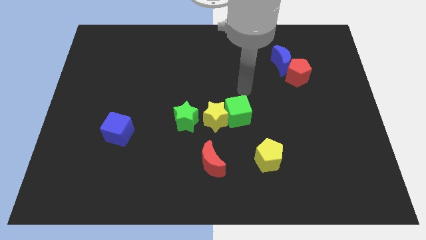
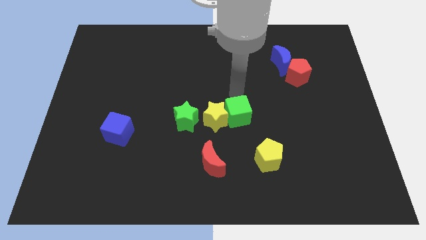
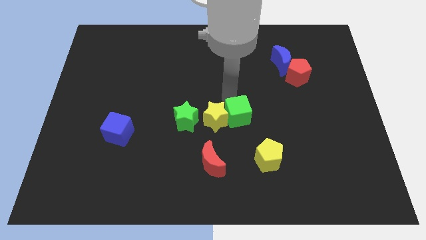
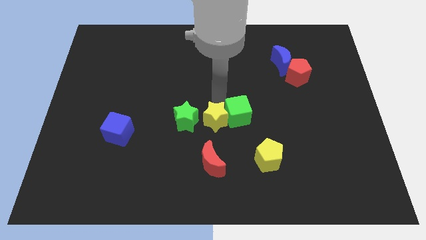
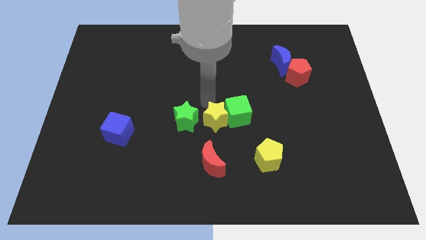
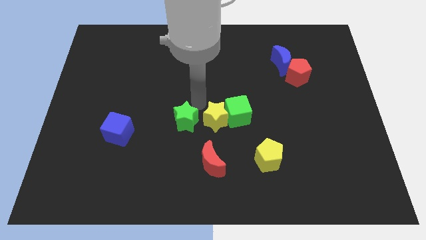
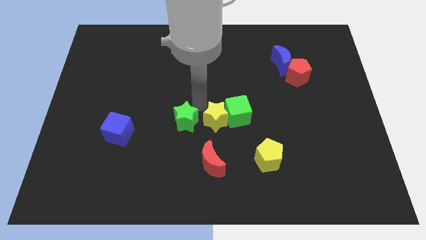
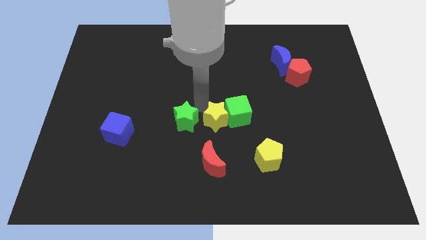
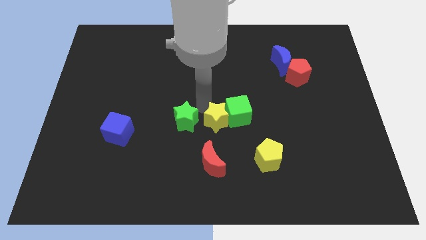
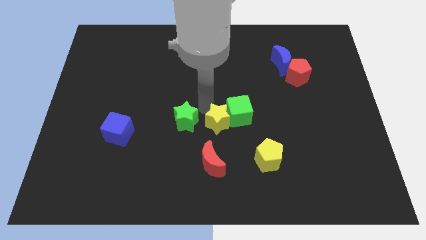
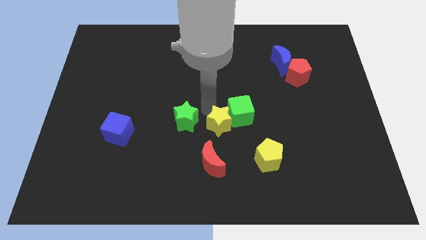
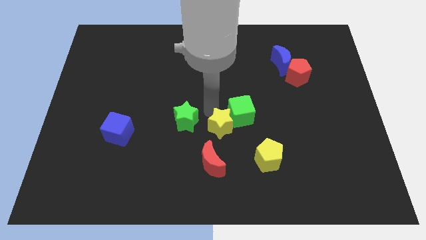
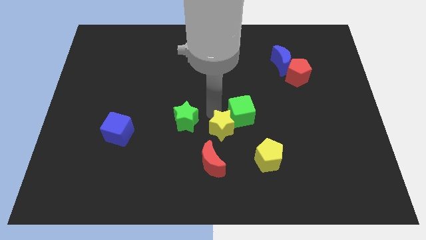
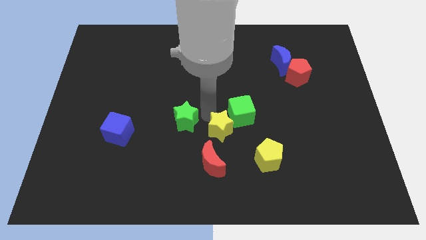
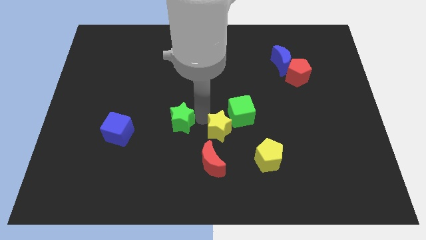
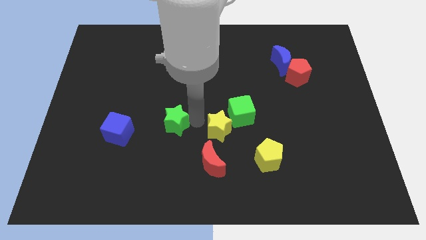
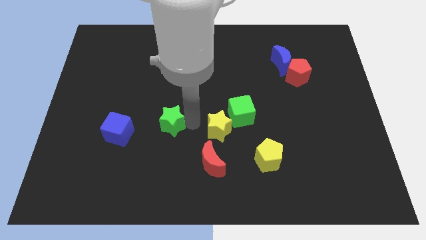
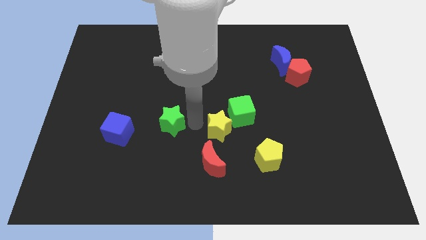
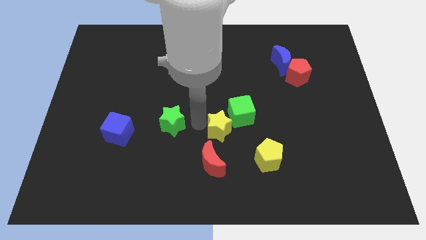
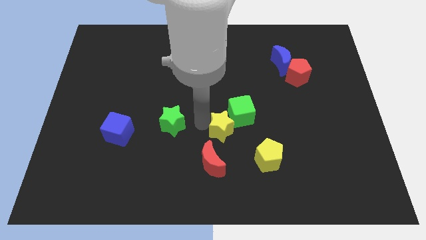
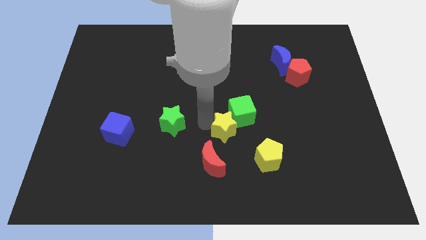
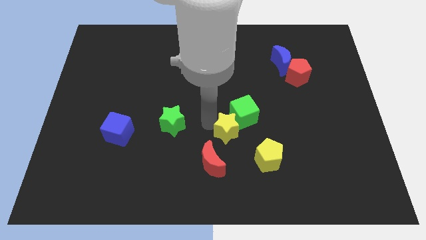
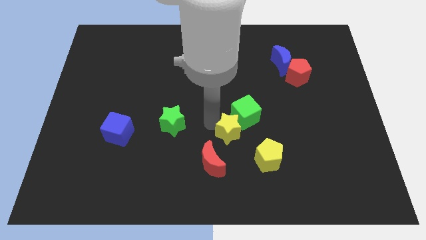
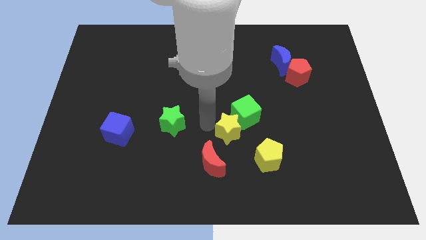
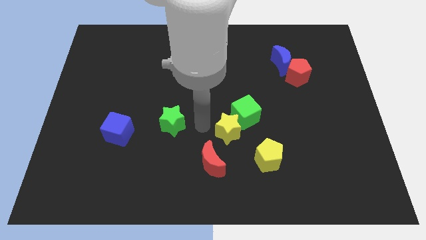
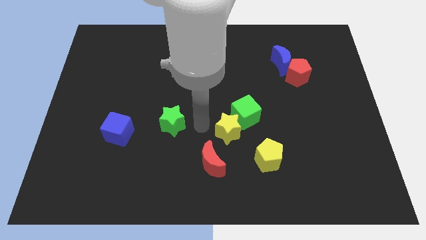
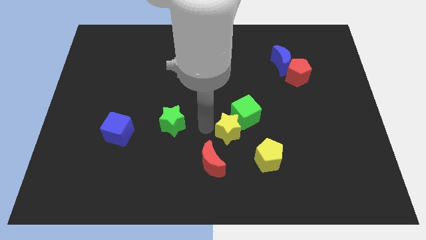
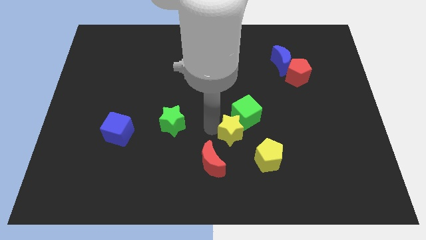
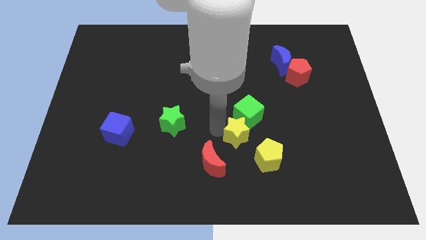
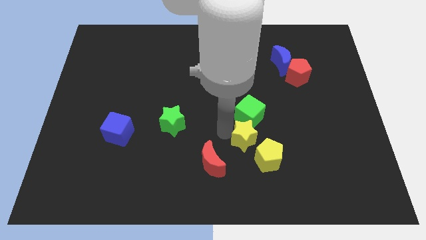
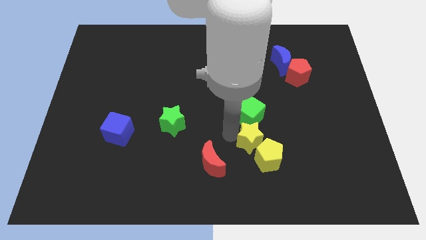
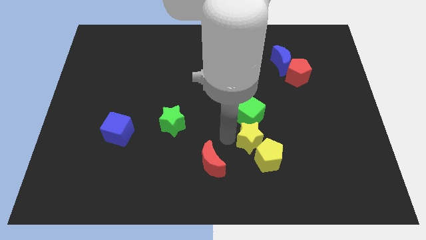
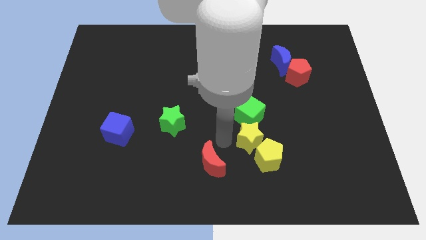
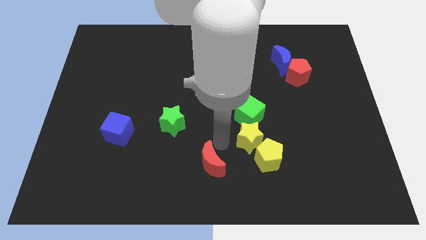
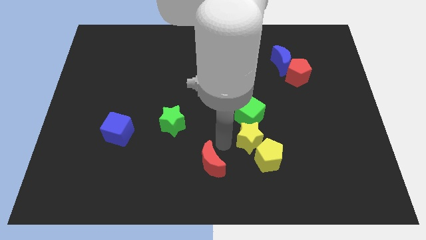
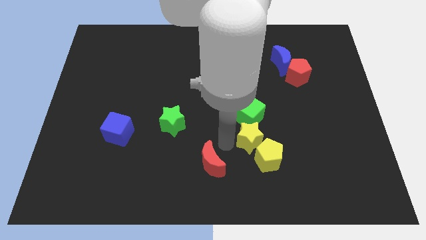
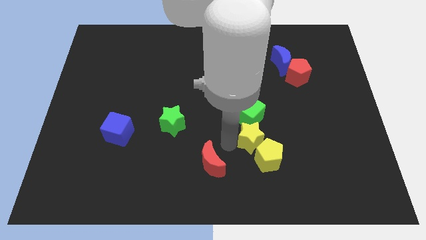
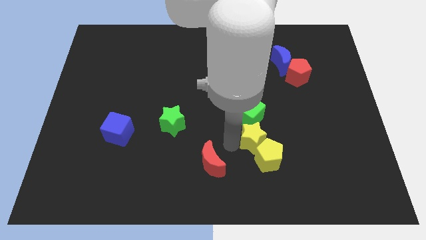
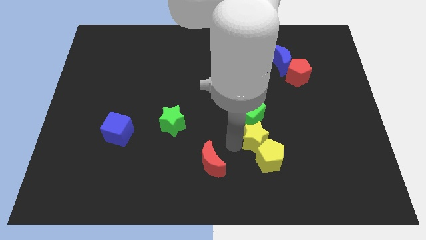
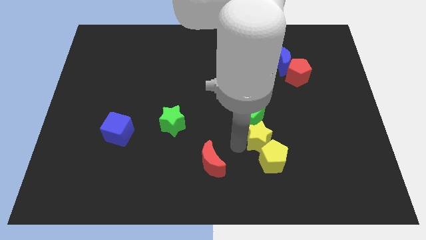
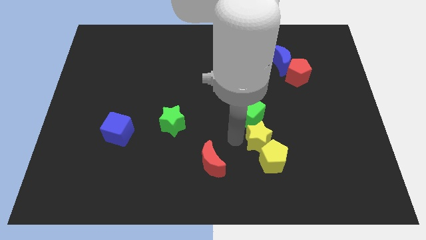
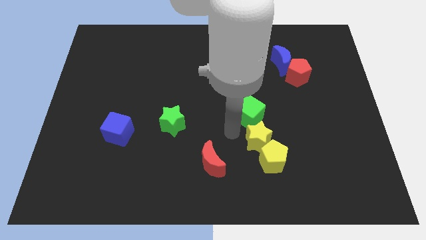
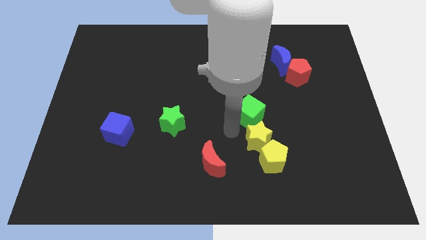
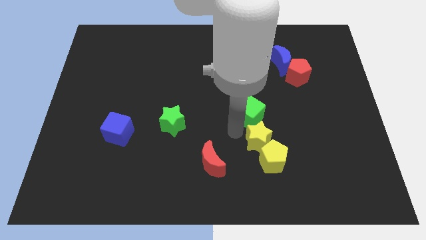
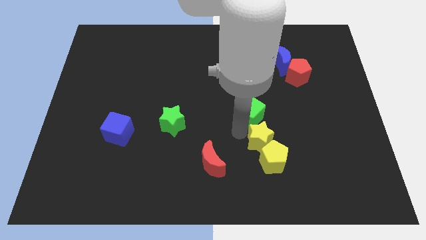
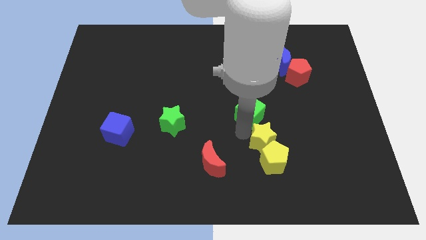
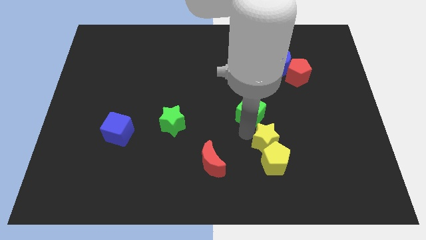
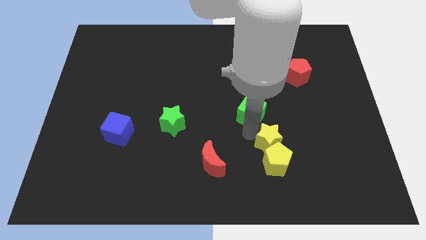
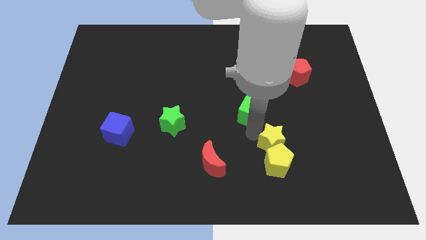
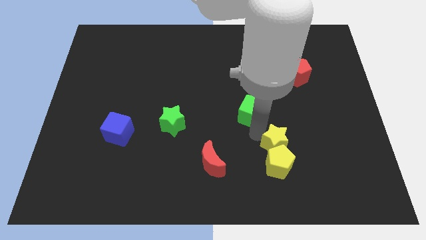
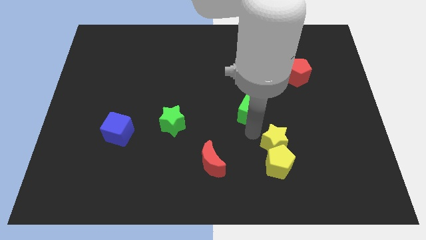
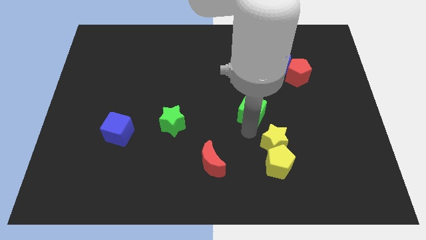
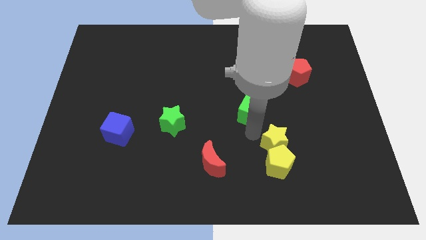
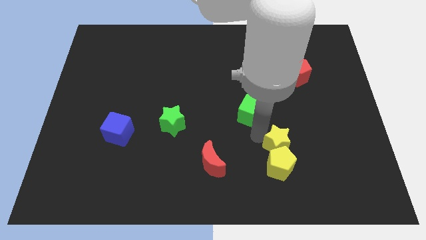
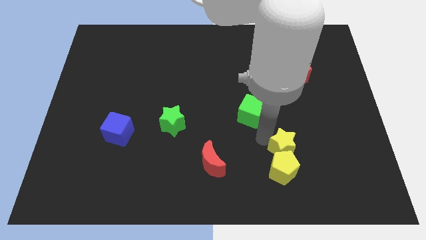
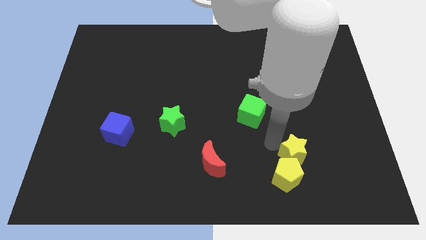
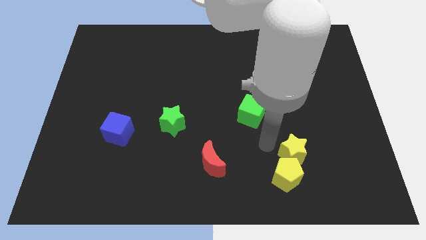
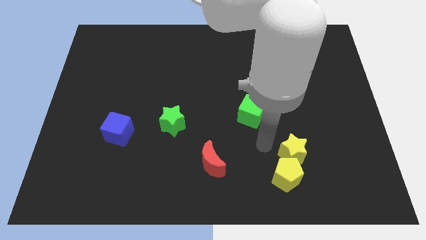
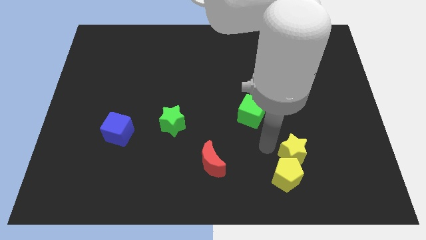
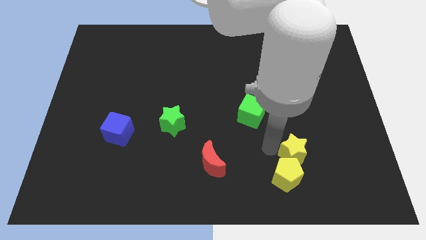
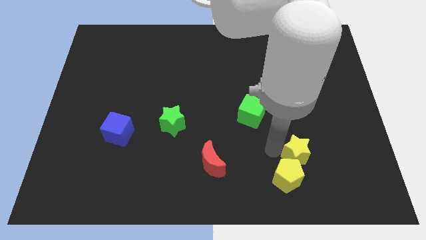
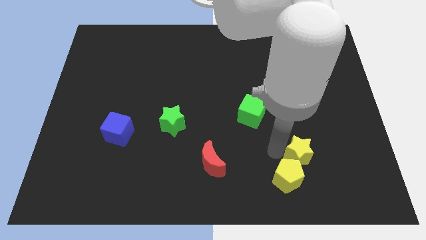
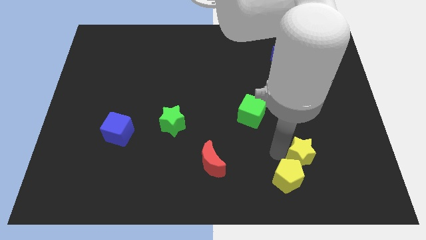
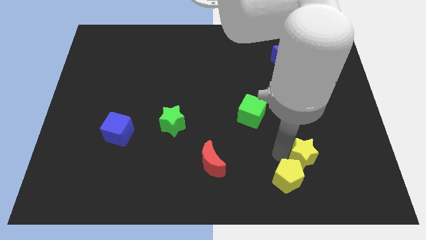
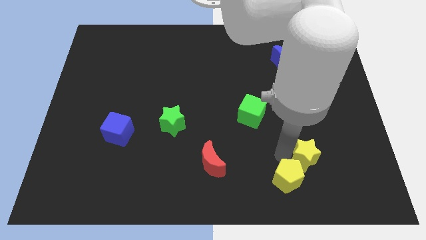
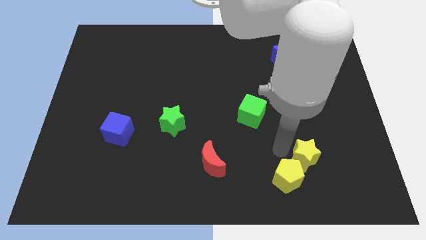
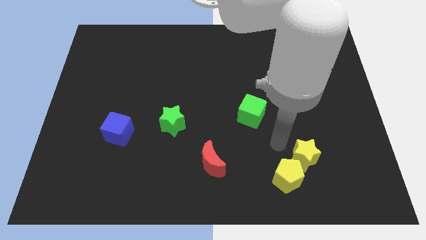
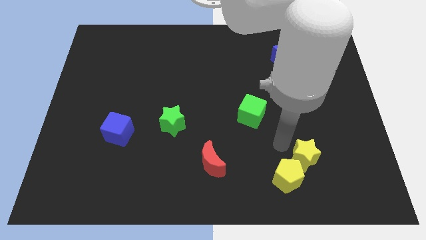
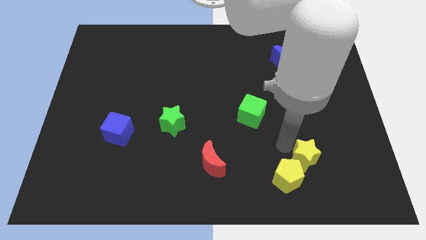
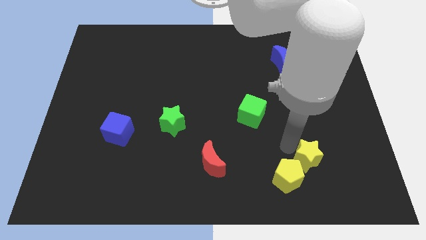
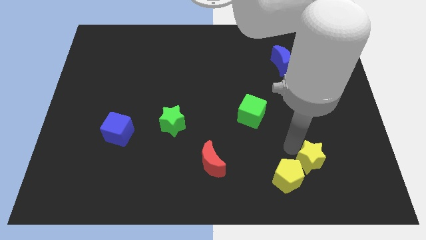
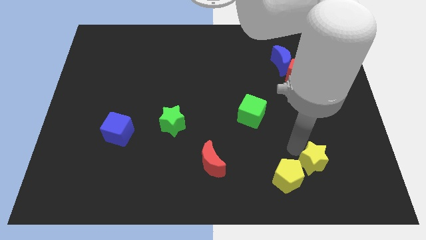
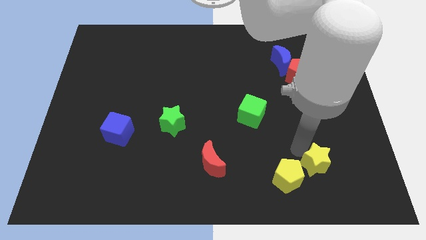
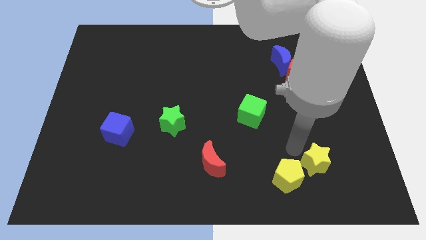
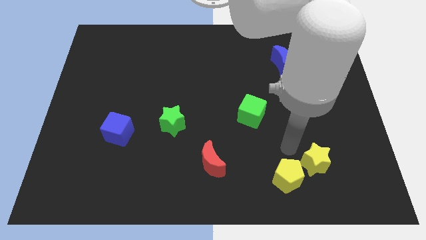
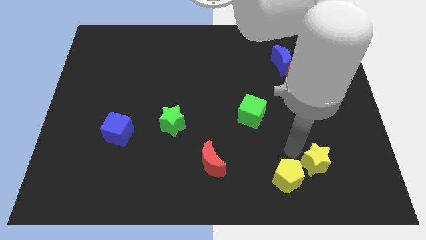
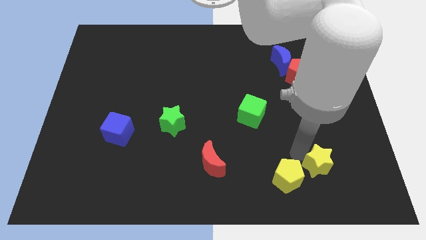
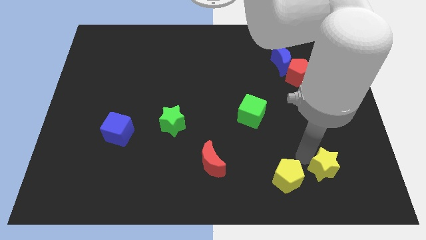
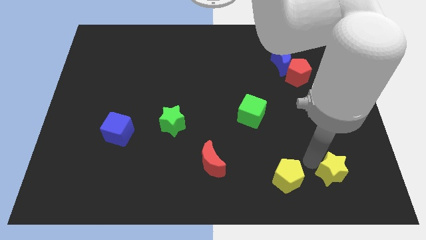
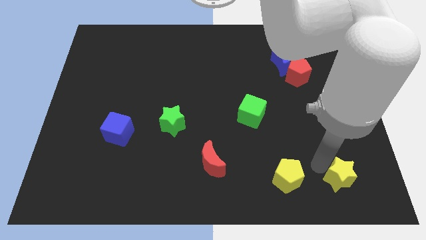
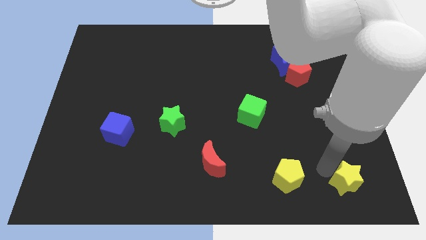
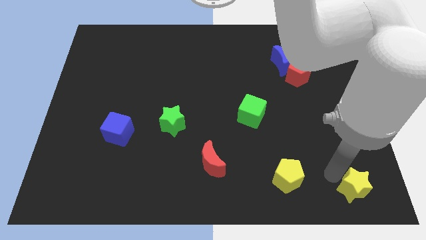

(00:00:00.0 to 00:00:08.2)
push the yellow star to the lower right corner
